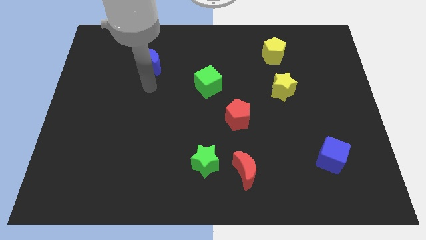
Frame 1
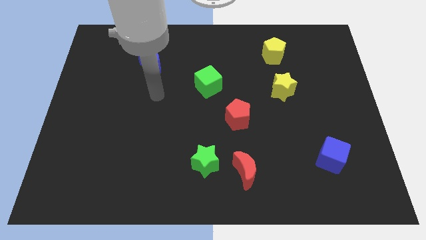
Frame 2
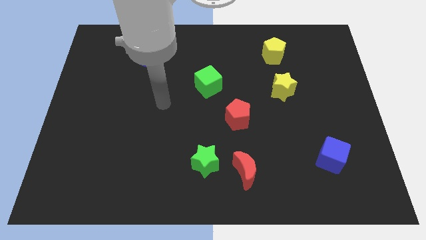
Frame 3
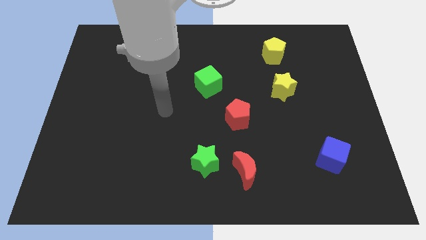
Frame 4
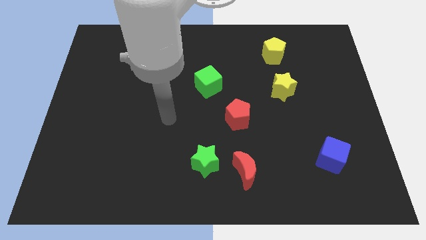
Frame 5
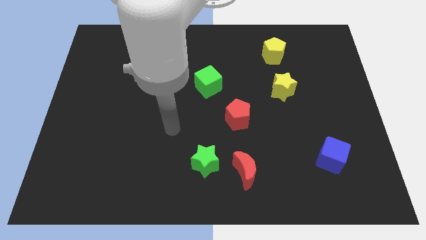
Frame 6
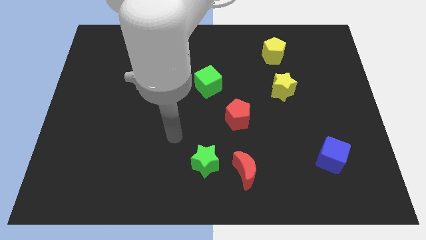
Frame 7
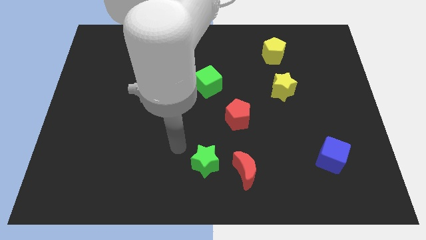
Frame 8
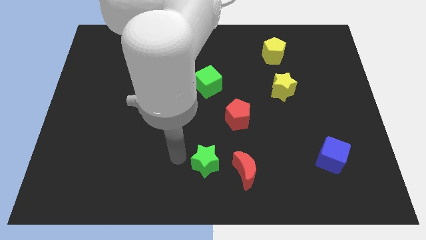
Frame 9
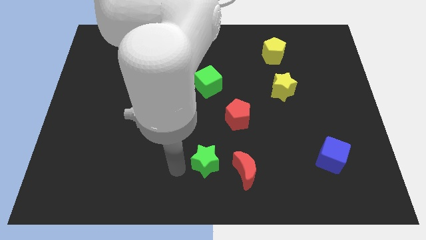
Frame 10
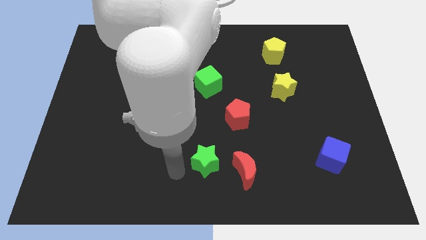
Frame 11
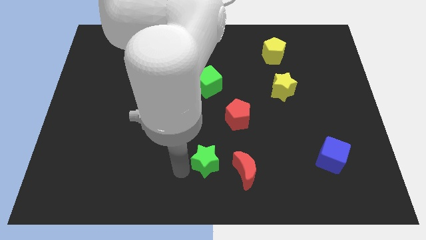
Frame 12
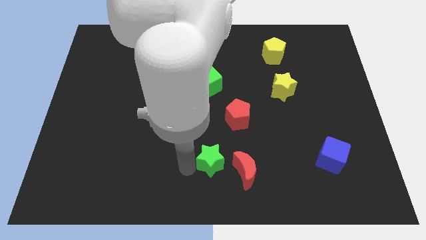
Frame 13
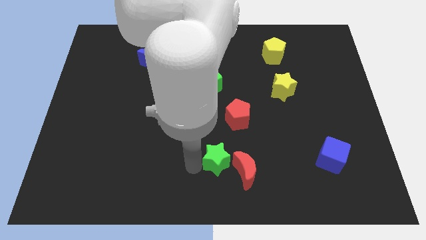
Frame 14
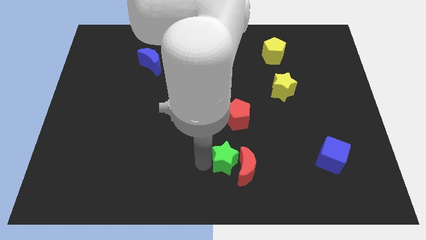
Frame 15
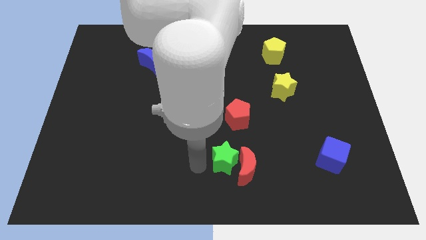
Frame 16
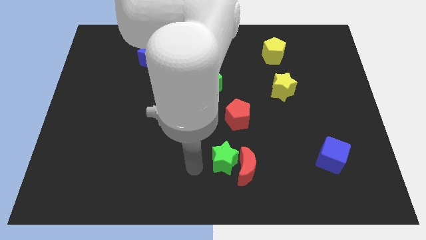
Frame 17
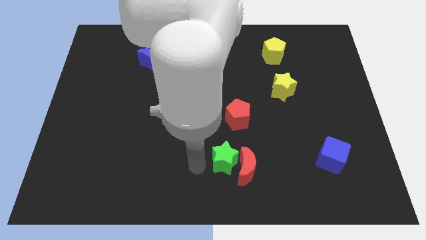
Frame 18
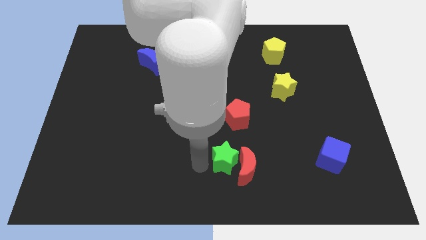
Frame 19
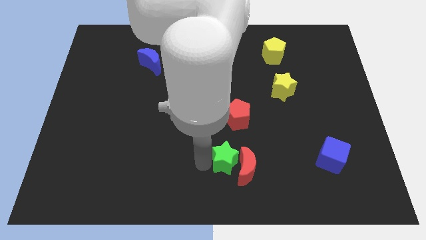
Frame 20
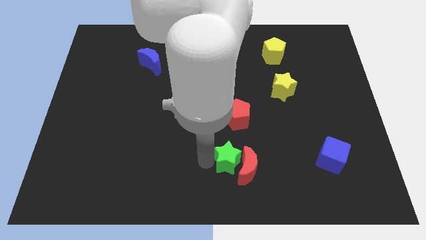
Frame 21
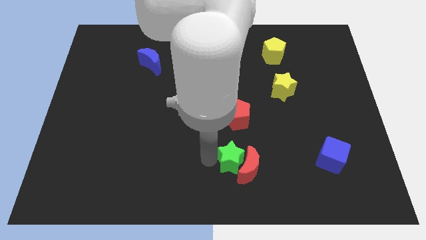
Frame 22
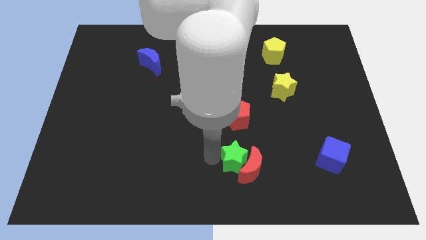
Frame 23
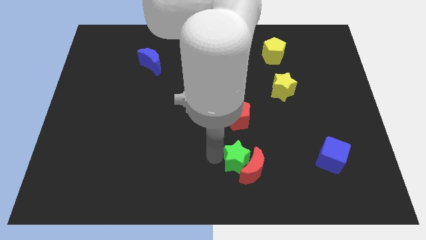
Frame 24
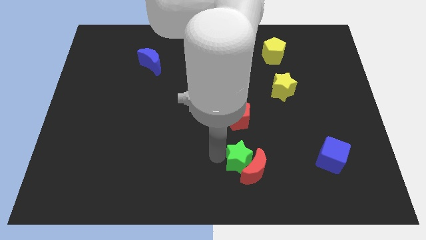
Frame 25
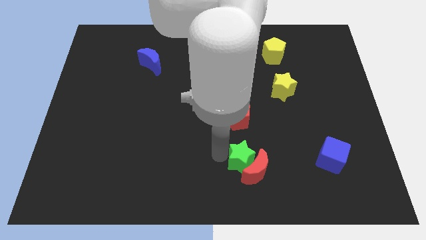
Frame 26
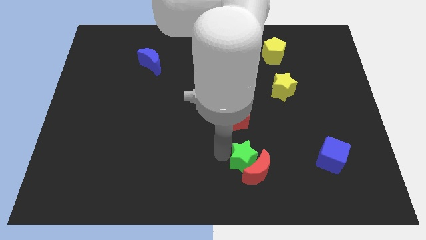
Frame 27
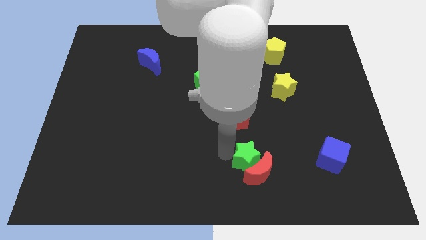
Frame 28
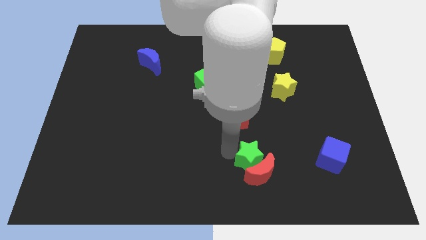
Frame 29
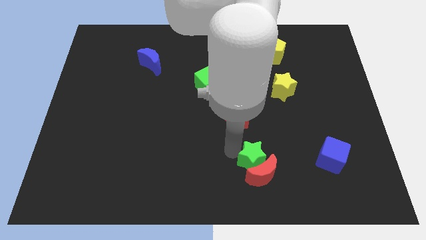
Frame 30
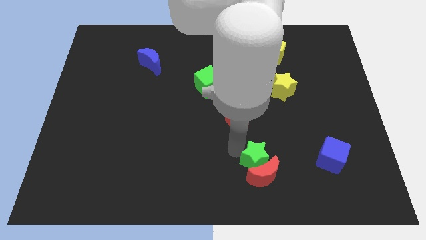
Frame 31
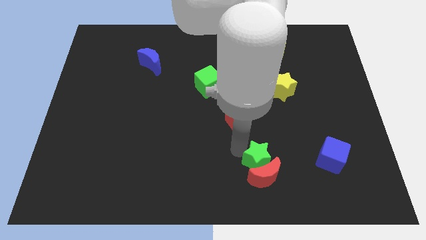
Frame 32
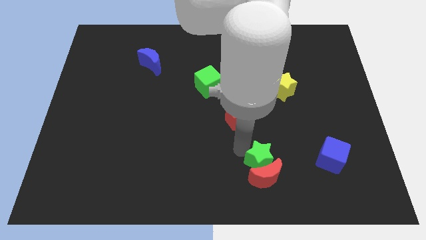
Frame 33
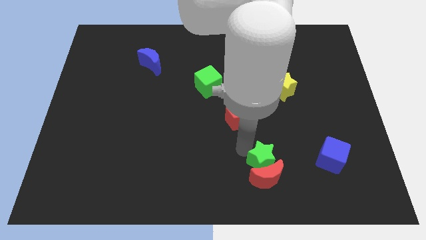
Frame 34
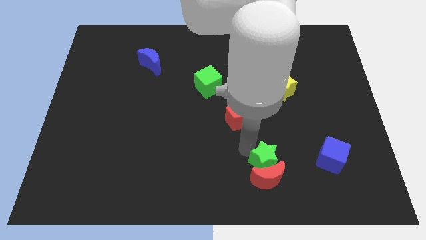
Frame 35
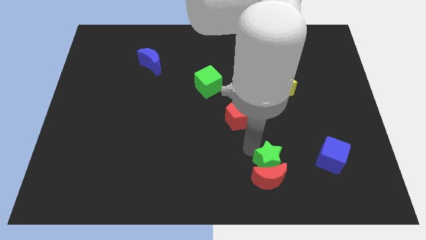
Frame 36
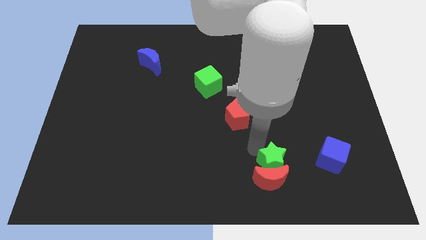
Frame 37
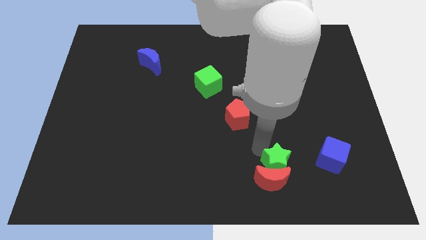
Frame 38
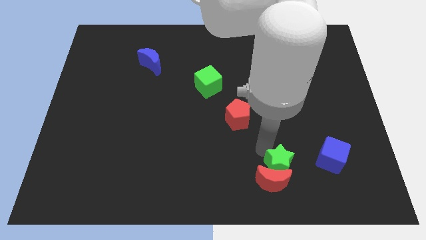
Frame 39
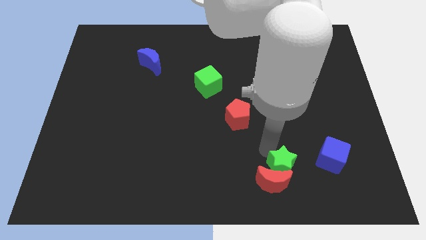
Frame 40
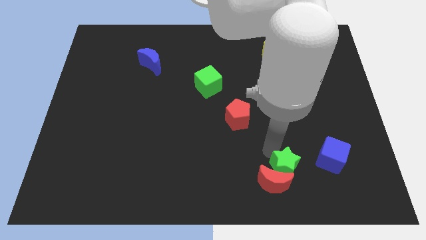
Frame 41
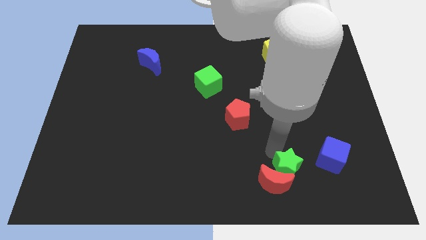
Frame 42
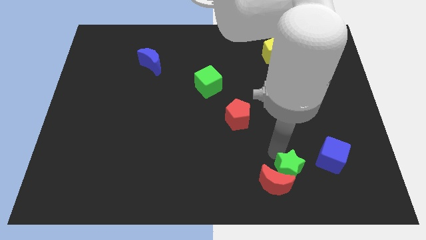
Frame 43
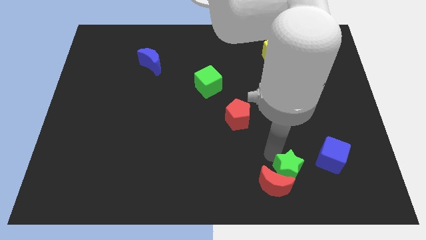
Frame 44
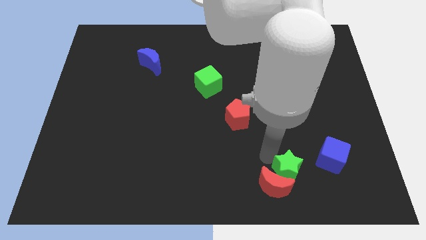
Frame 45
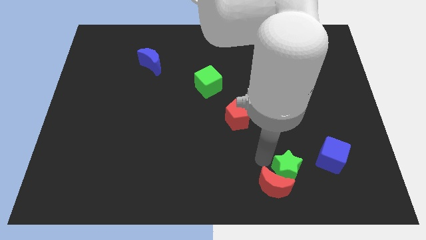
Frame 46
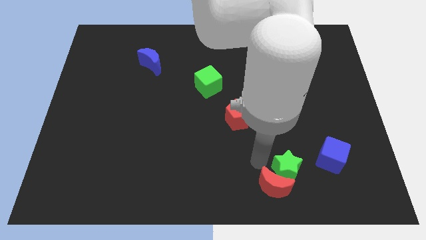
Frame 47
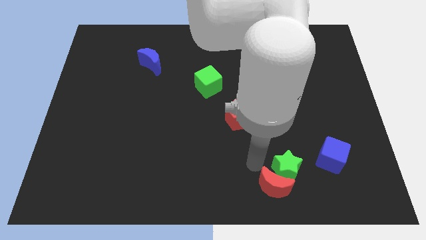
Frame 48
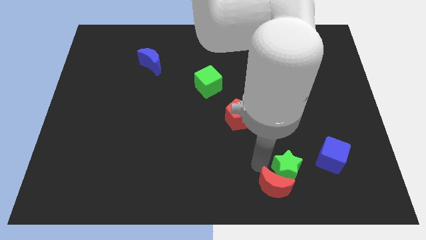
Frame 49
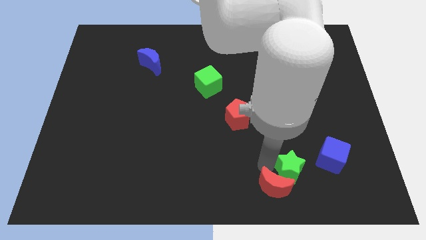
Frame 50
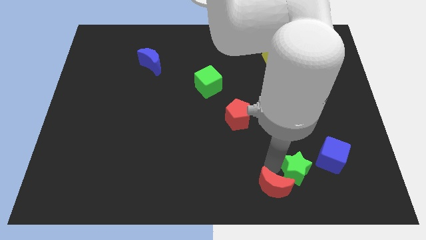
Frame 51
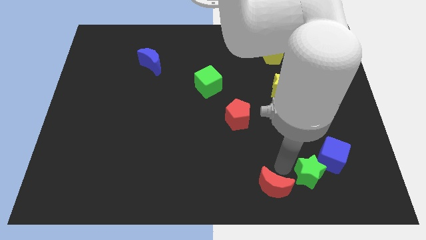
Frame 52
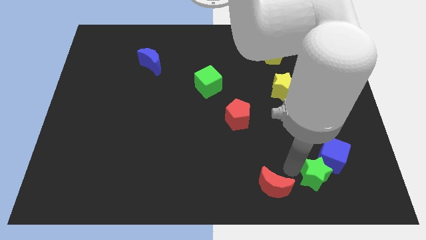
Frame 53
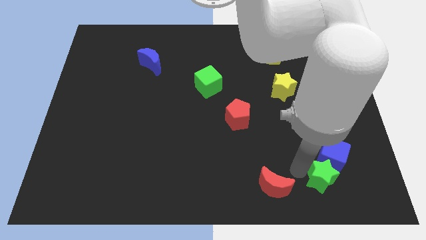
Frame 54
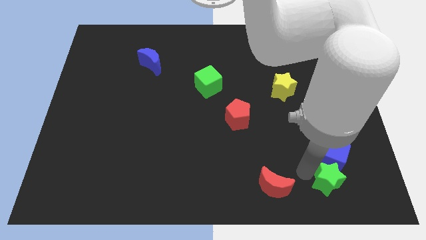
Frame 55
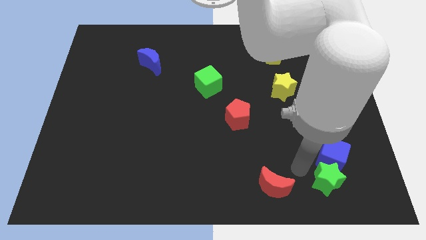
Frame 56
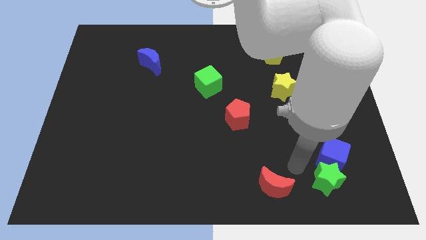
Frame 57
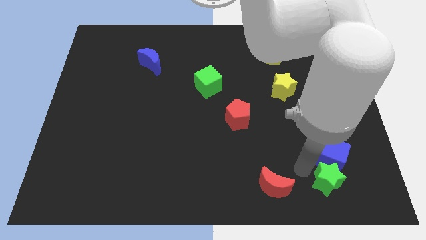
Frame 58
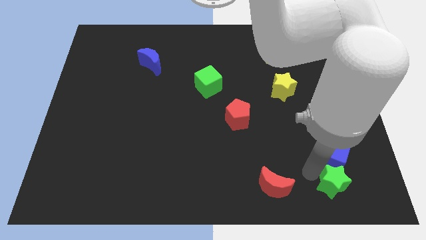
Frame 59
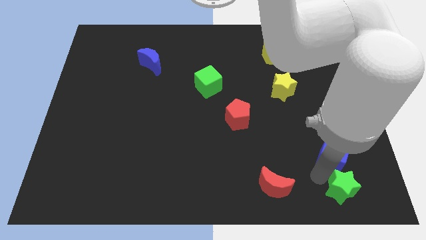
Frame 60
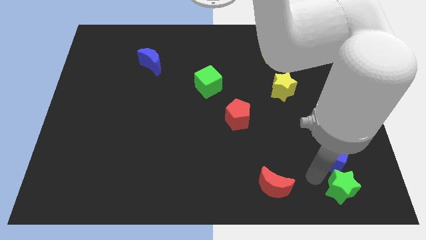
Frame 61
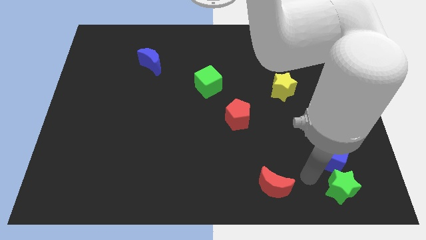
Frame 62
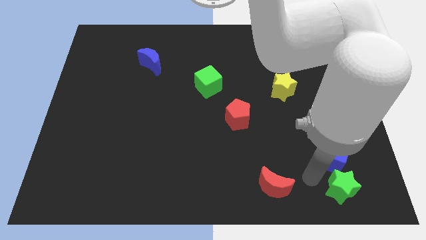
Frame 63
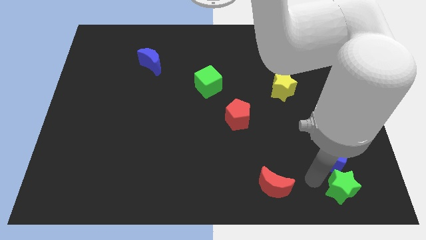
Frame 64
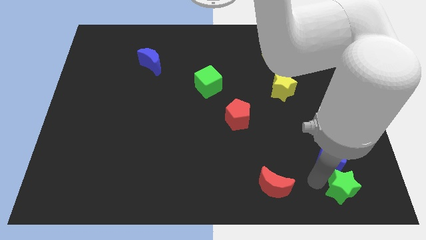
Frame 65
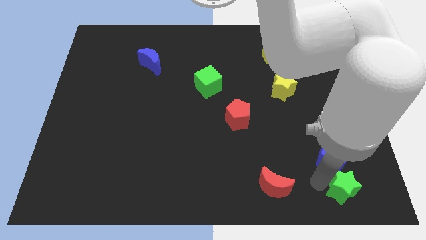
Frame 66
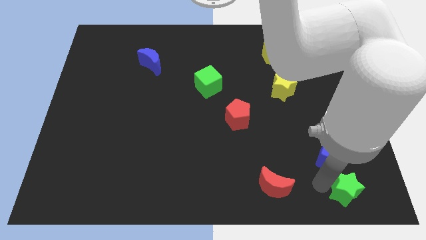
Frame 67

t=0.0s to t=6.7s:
slide the green star to the bottom right corner
